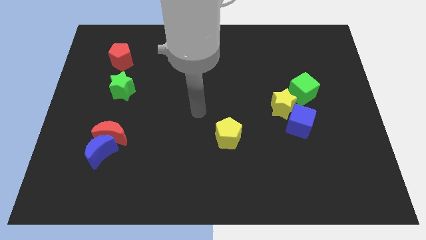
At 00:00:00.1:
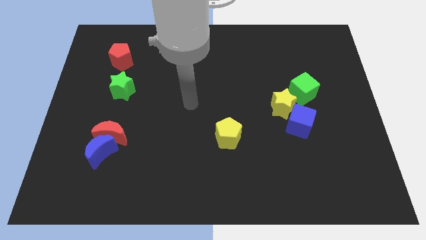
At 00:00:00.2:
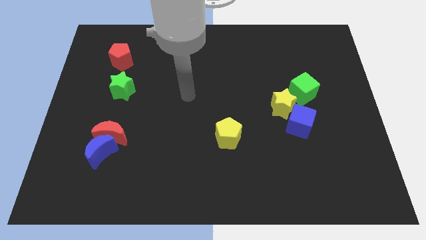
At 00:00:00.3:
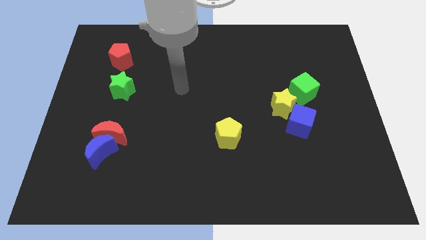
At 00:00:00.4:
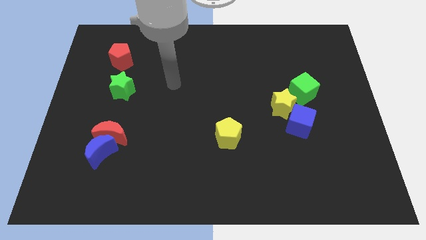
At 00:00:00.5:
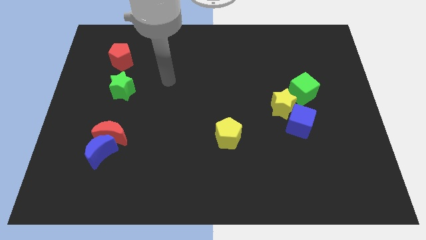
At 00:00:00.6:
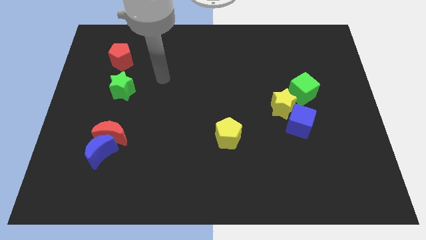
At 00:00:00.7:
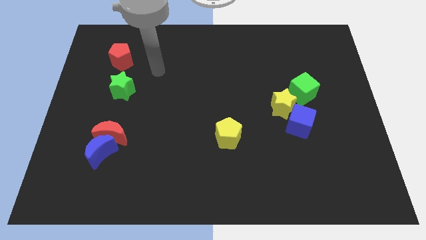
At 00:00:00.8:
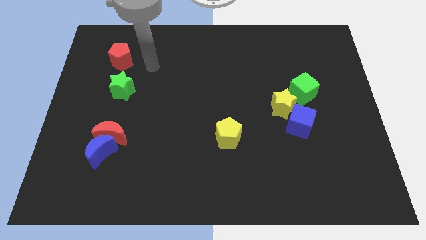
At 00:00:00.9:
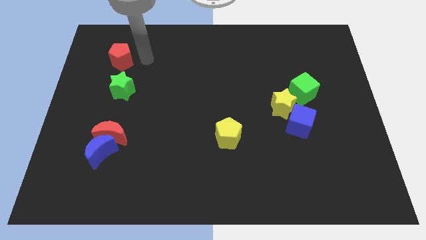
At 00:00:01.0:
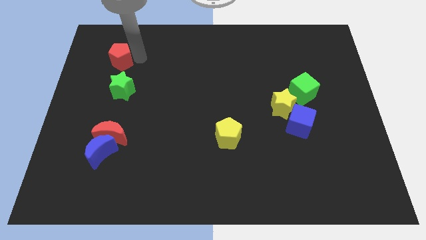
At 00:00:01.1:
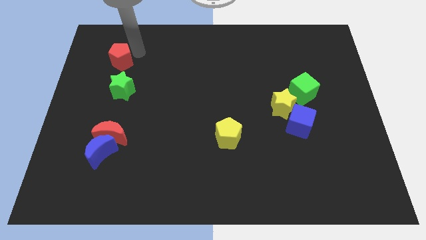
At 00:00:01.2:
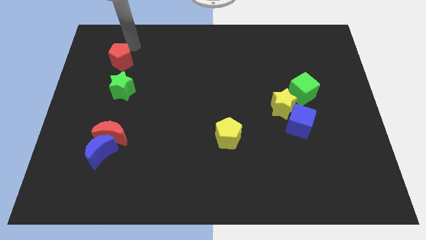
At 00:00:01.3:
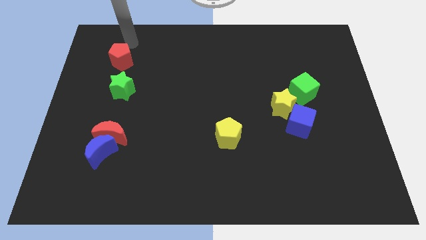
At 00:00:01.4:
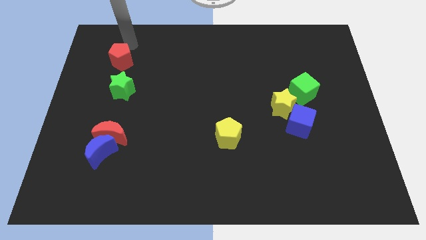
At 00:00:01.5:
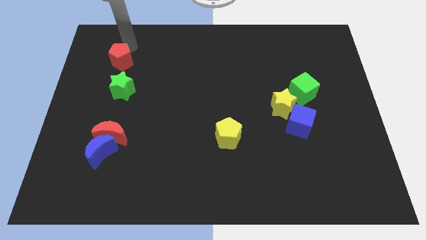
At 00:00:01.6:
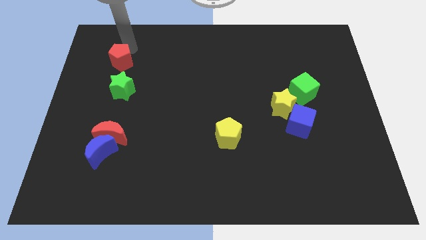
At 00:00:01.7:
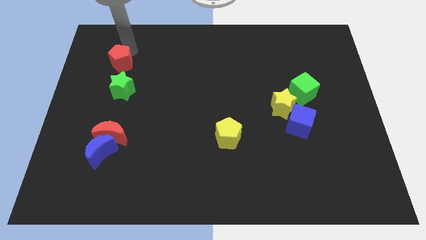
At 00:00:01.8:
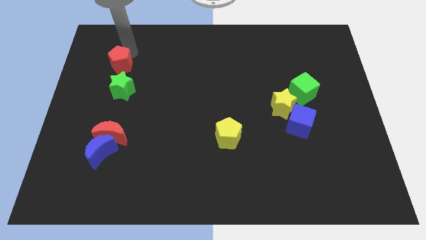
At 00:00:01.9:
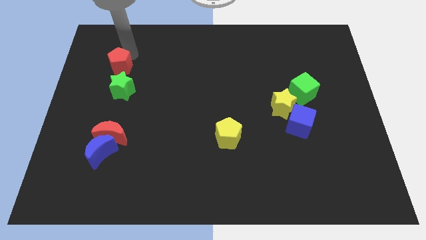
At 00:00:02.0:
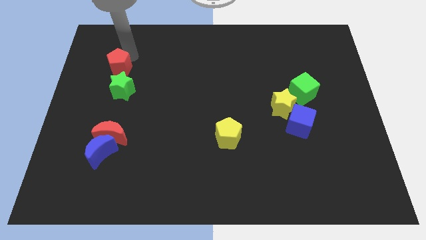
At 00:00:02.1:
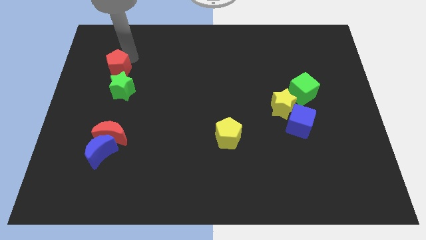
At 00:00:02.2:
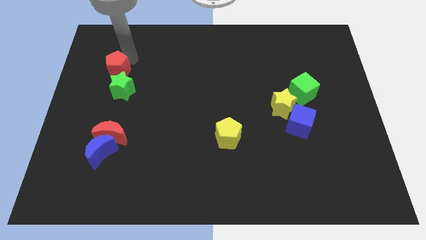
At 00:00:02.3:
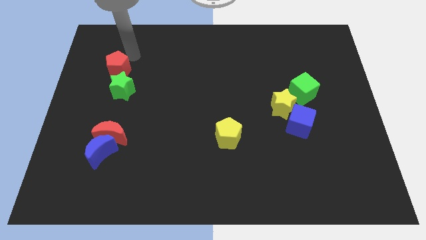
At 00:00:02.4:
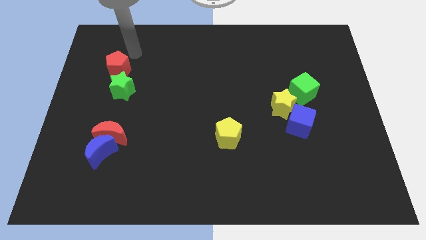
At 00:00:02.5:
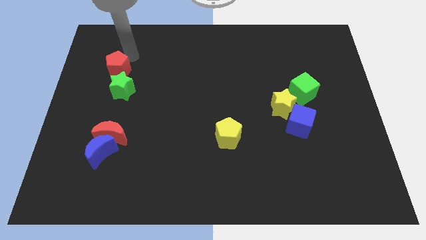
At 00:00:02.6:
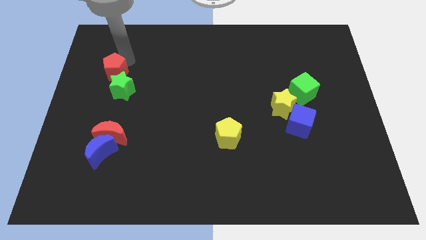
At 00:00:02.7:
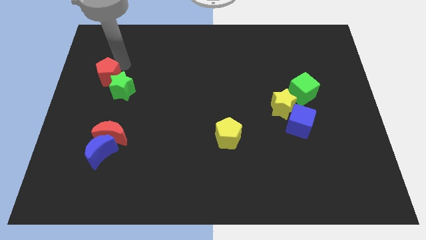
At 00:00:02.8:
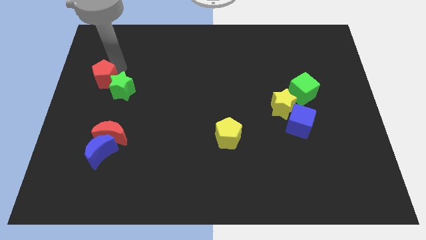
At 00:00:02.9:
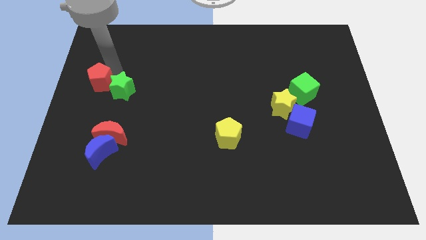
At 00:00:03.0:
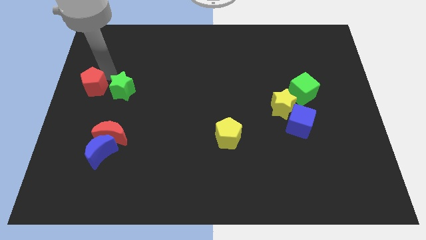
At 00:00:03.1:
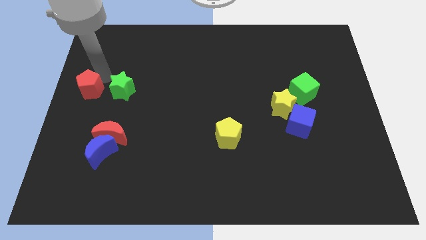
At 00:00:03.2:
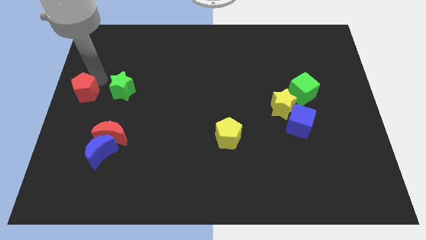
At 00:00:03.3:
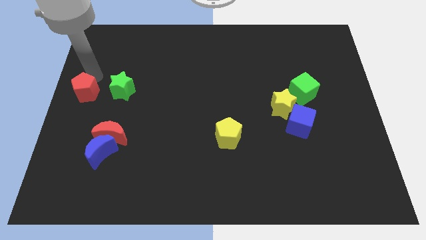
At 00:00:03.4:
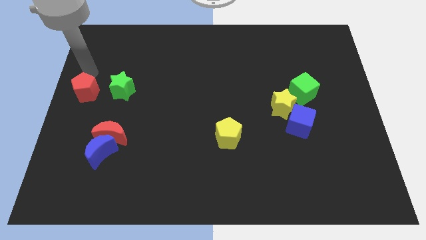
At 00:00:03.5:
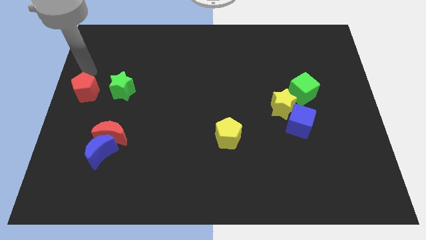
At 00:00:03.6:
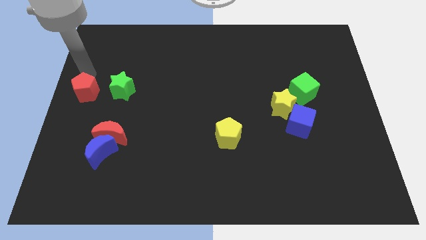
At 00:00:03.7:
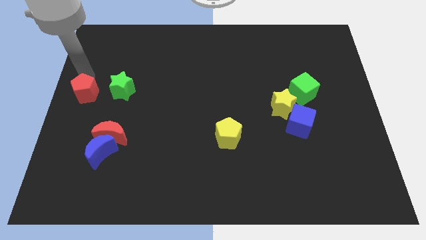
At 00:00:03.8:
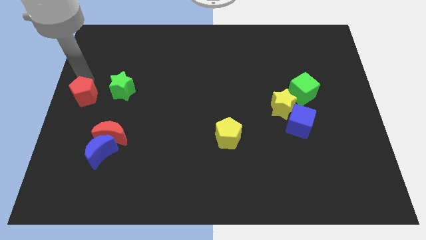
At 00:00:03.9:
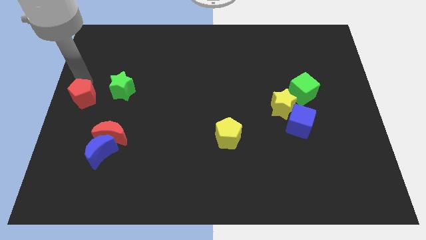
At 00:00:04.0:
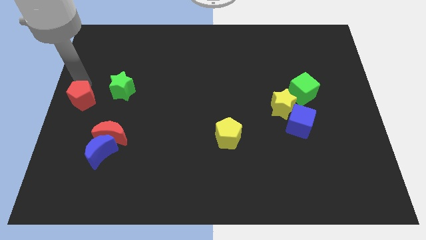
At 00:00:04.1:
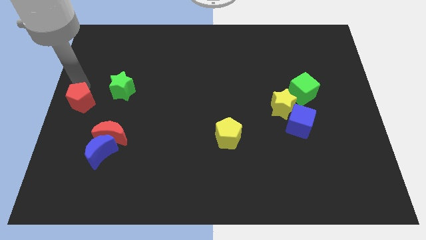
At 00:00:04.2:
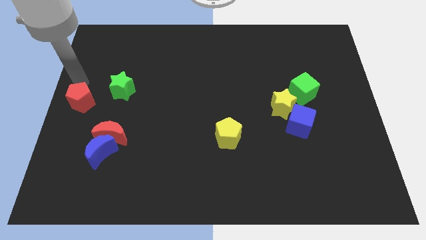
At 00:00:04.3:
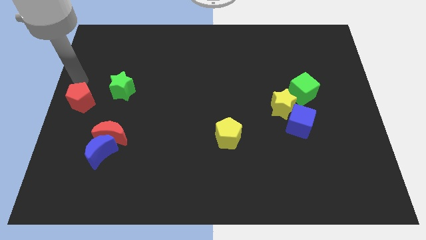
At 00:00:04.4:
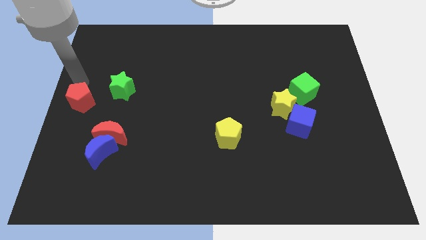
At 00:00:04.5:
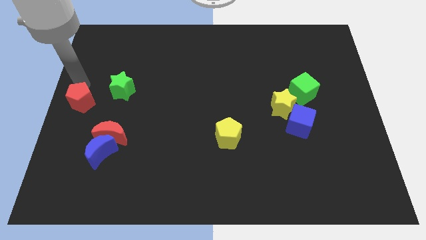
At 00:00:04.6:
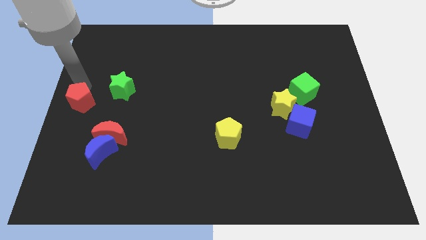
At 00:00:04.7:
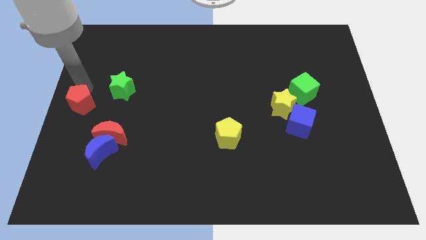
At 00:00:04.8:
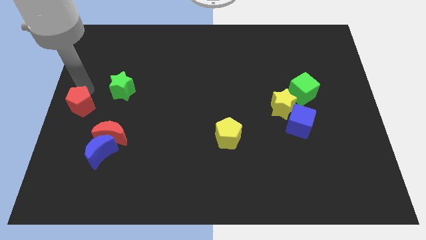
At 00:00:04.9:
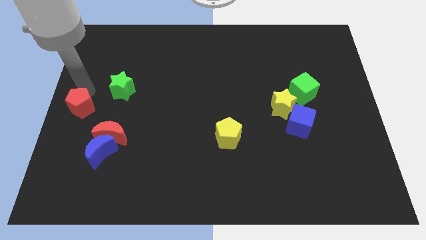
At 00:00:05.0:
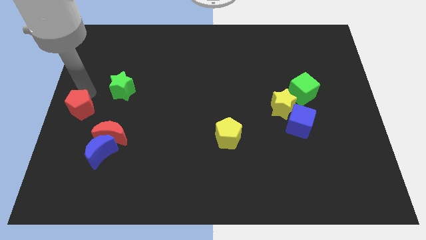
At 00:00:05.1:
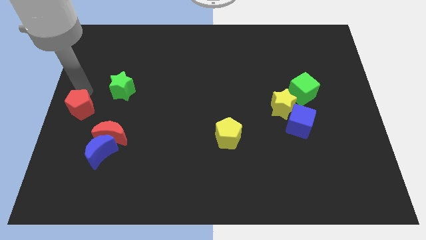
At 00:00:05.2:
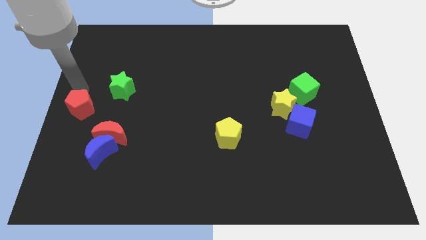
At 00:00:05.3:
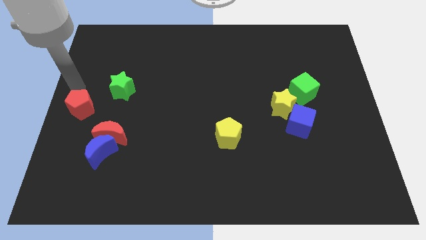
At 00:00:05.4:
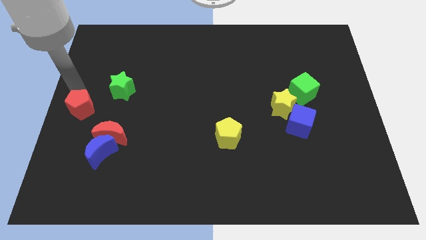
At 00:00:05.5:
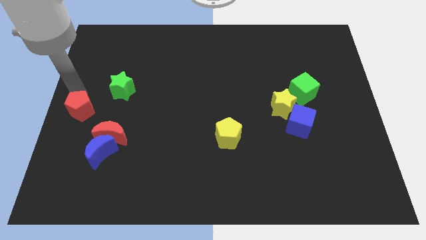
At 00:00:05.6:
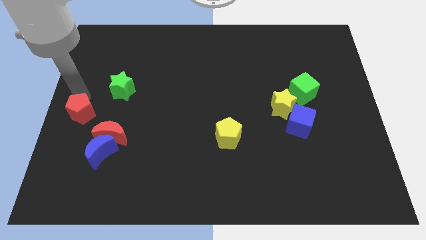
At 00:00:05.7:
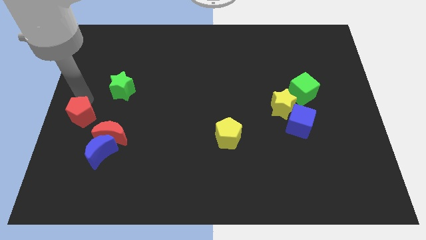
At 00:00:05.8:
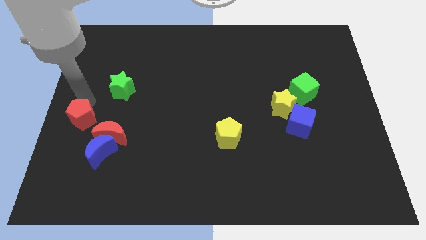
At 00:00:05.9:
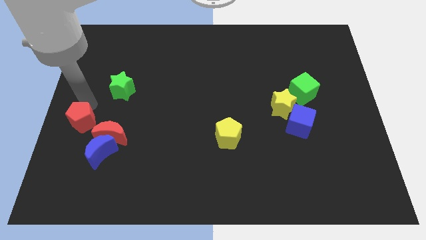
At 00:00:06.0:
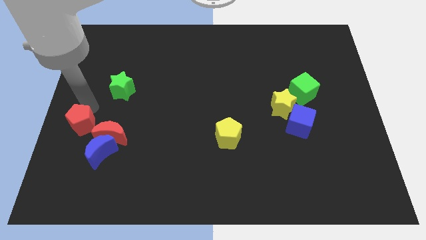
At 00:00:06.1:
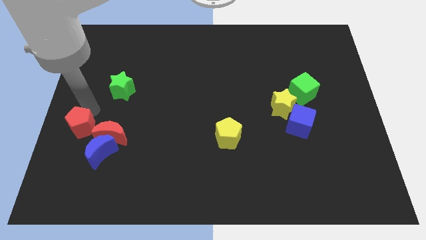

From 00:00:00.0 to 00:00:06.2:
slide the red pentagon down

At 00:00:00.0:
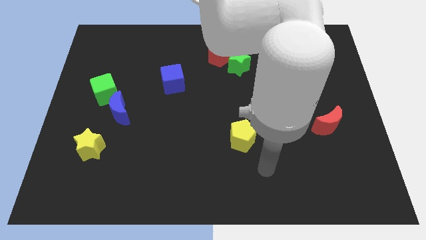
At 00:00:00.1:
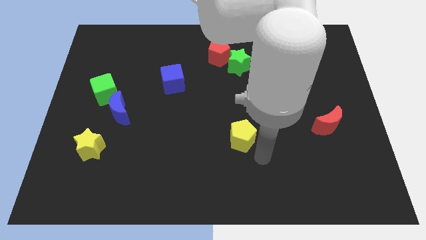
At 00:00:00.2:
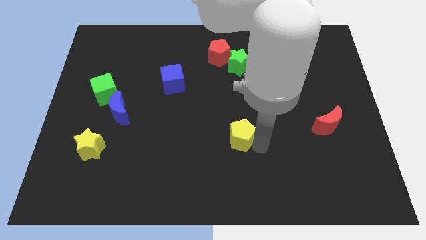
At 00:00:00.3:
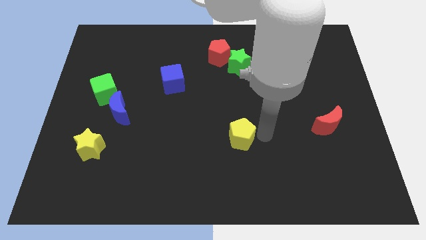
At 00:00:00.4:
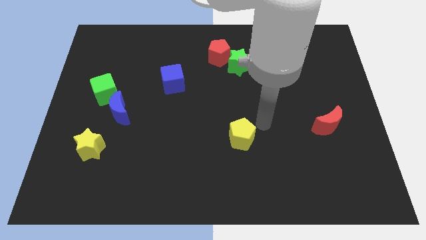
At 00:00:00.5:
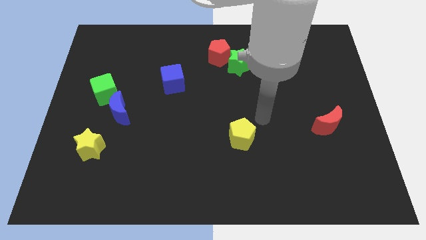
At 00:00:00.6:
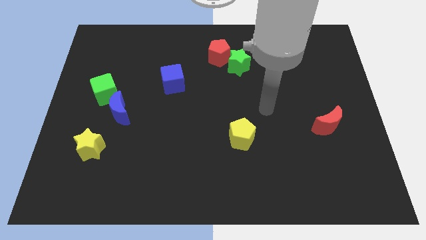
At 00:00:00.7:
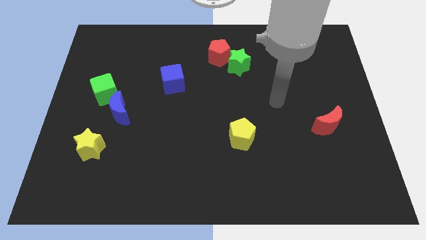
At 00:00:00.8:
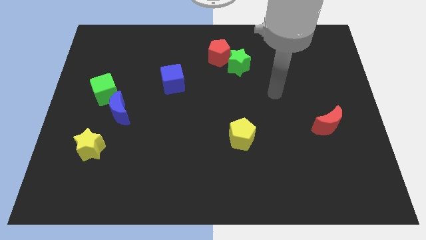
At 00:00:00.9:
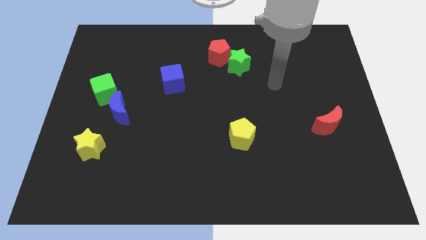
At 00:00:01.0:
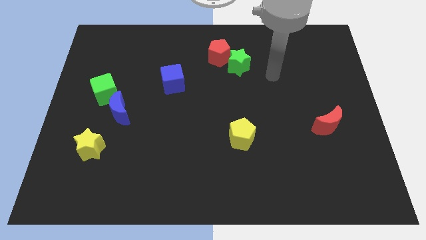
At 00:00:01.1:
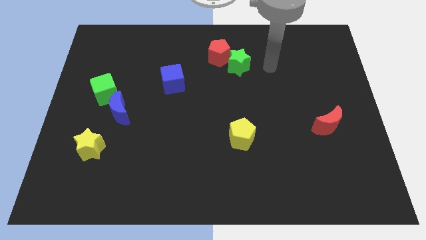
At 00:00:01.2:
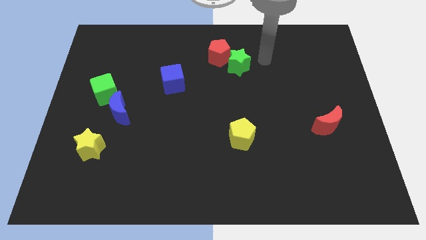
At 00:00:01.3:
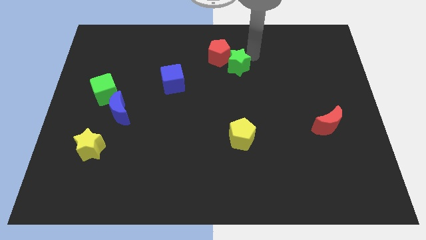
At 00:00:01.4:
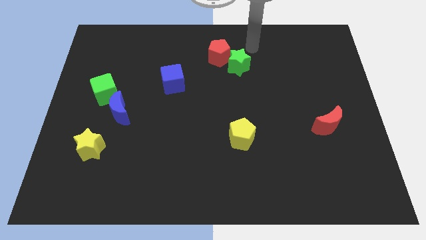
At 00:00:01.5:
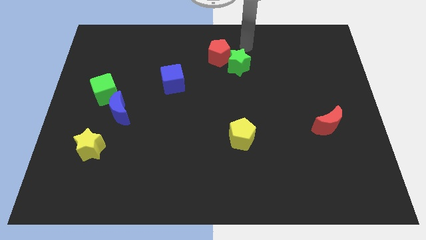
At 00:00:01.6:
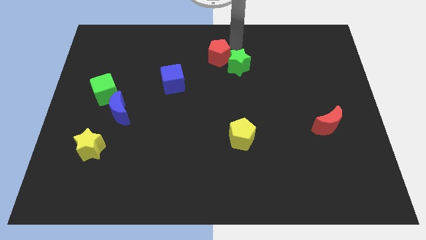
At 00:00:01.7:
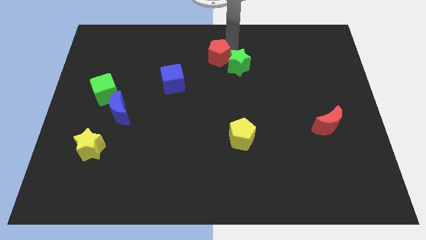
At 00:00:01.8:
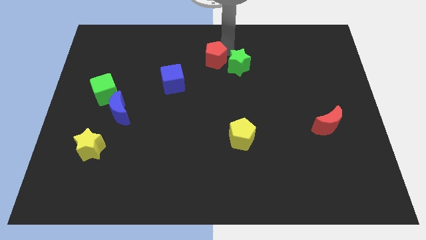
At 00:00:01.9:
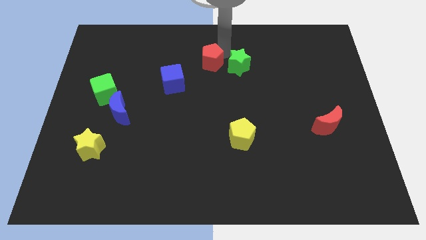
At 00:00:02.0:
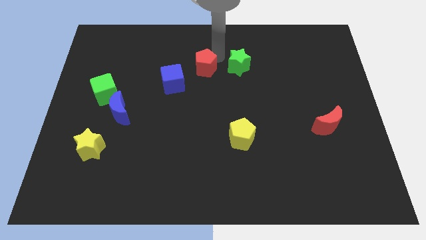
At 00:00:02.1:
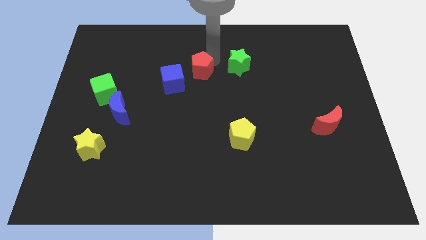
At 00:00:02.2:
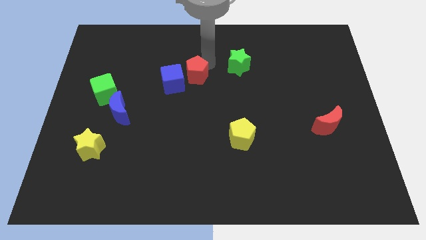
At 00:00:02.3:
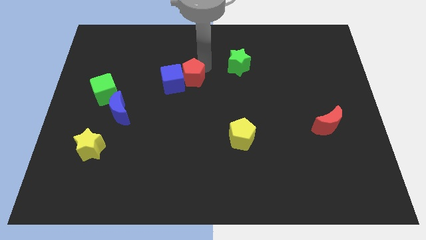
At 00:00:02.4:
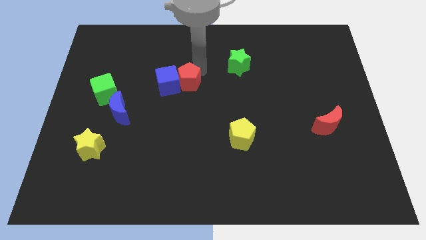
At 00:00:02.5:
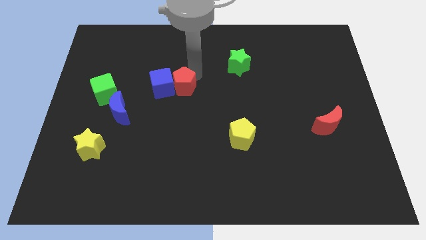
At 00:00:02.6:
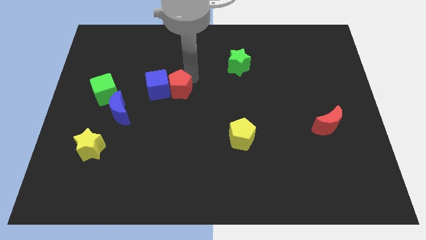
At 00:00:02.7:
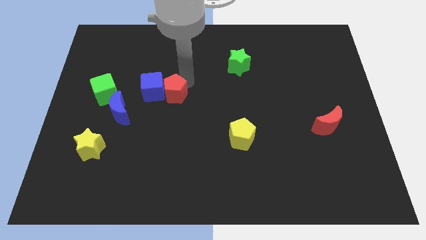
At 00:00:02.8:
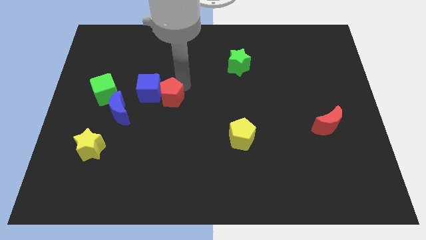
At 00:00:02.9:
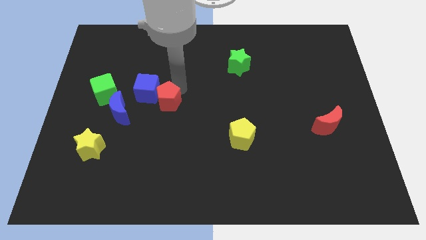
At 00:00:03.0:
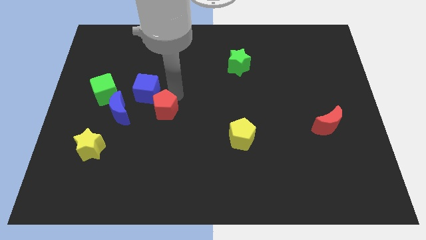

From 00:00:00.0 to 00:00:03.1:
push the red pentagon downwards and left diagonally
